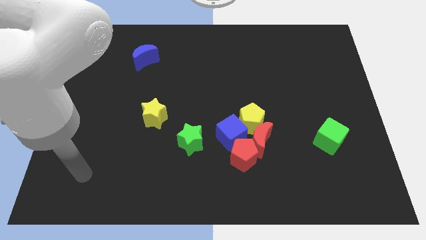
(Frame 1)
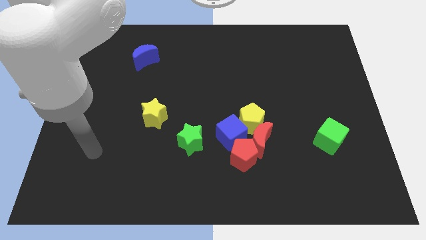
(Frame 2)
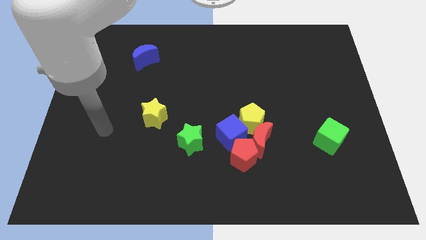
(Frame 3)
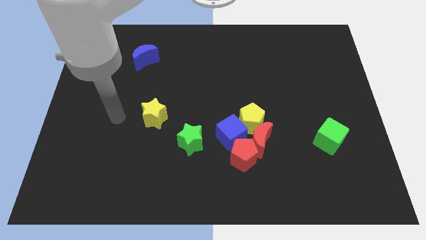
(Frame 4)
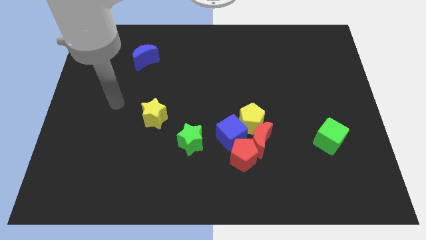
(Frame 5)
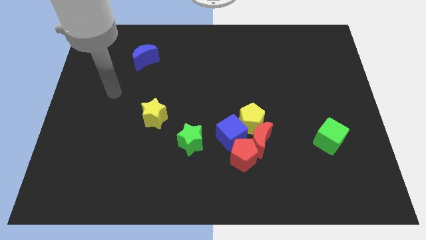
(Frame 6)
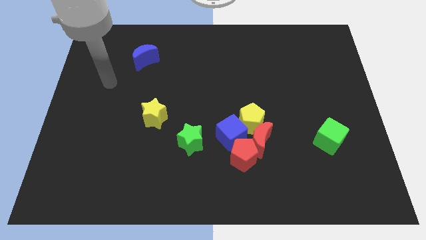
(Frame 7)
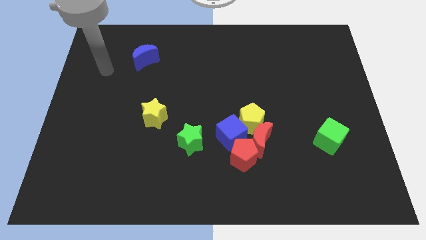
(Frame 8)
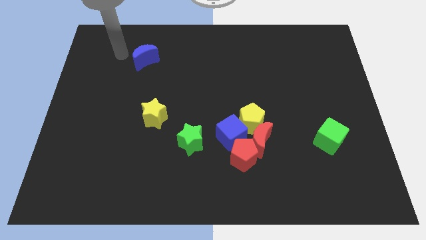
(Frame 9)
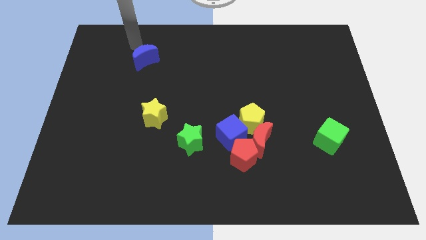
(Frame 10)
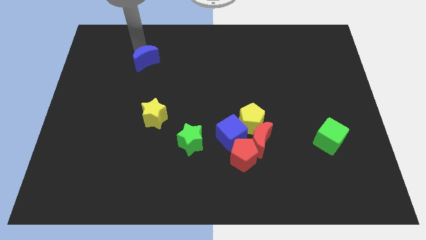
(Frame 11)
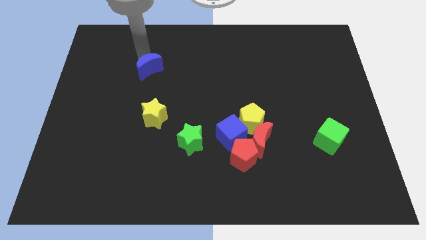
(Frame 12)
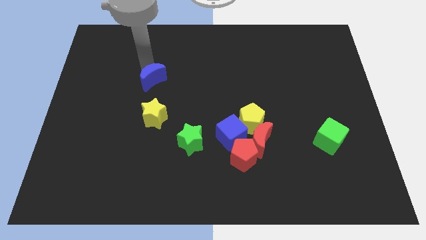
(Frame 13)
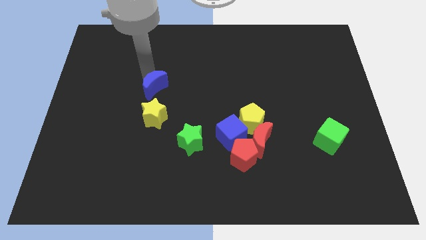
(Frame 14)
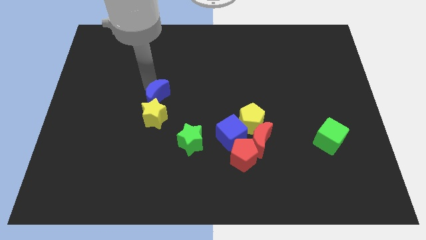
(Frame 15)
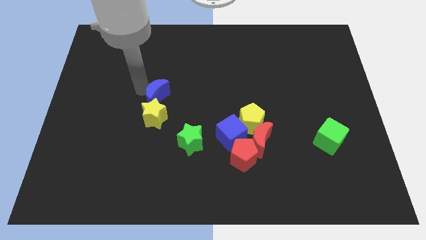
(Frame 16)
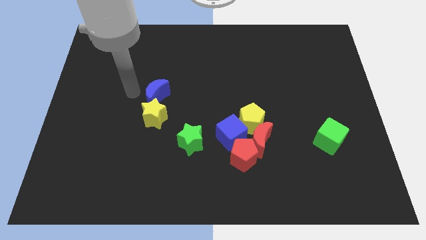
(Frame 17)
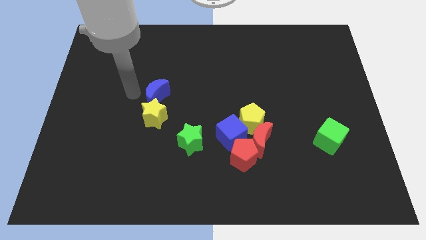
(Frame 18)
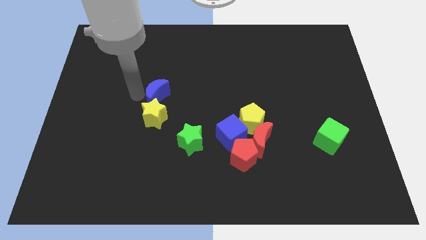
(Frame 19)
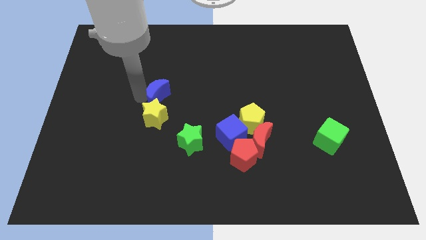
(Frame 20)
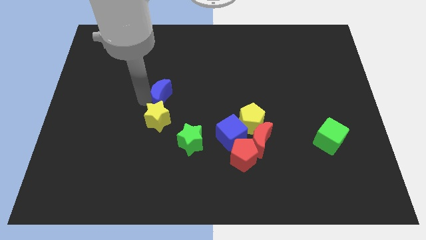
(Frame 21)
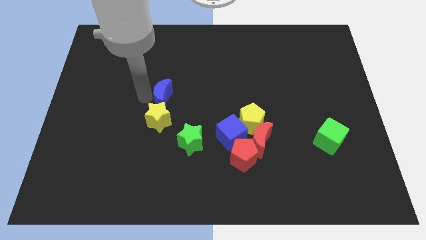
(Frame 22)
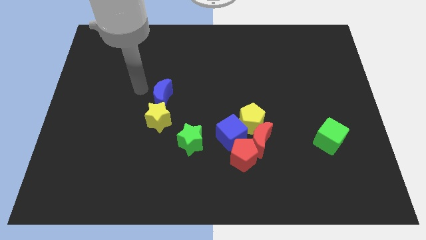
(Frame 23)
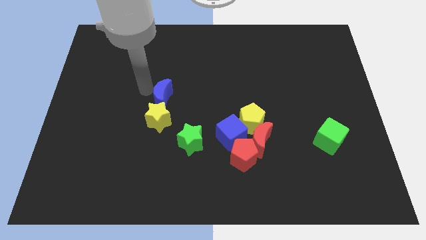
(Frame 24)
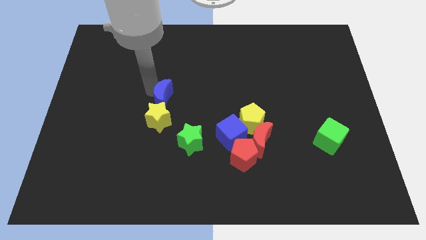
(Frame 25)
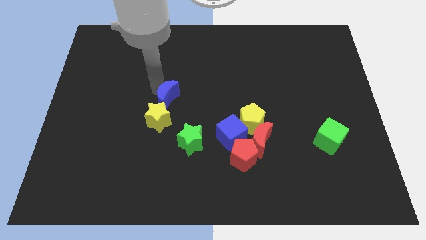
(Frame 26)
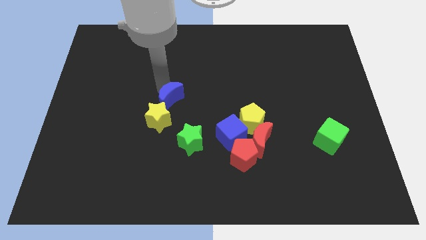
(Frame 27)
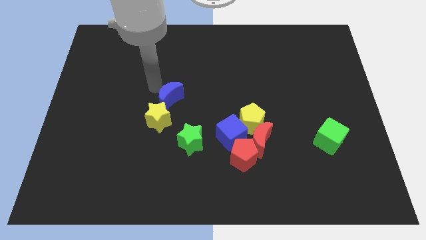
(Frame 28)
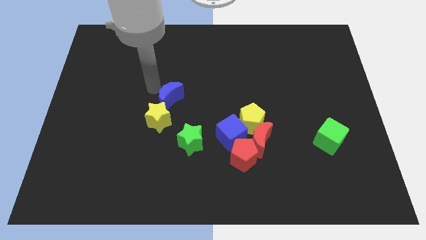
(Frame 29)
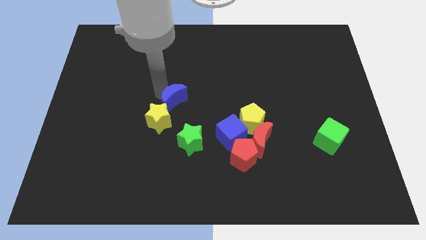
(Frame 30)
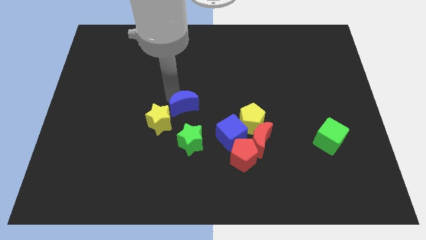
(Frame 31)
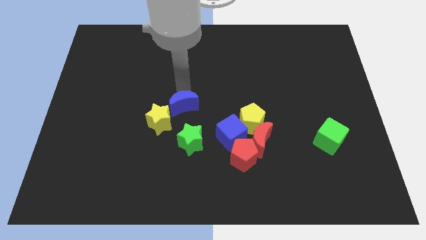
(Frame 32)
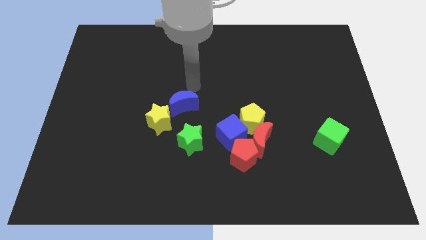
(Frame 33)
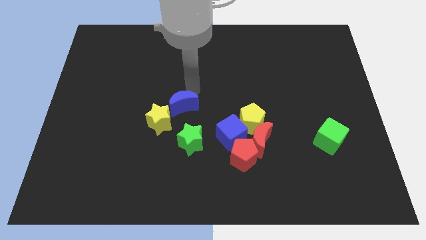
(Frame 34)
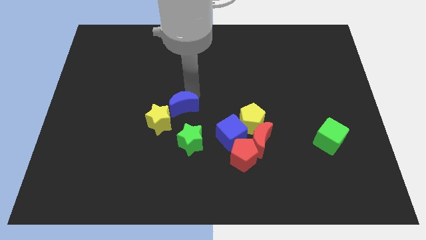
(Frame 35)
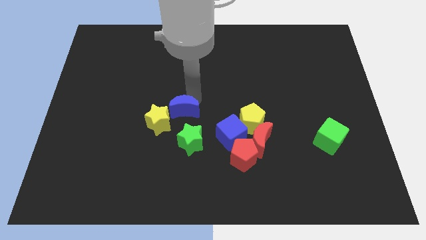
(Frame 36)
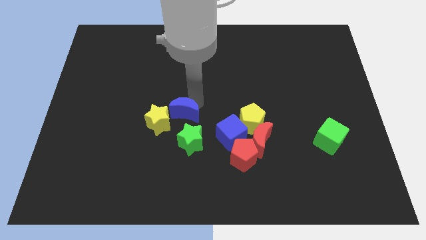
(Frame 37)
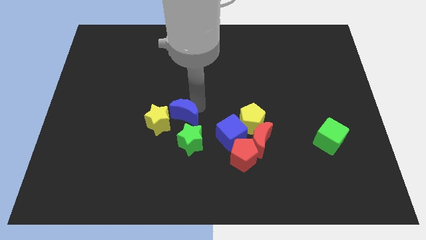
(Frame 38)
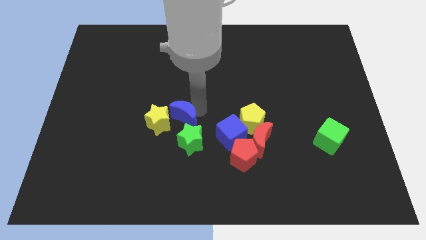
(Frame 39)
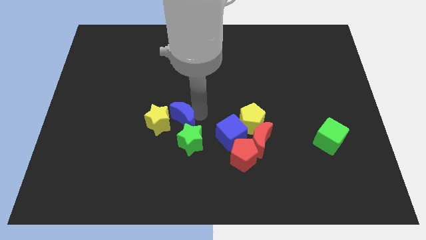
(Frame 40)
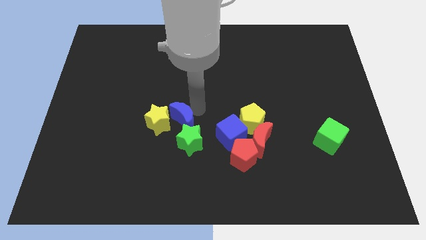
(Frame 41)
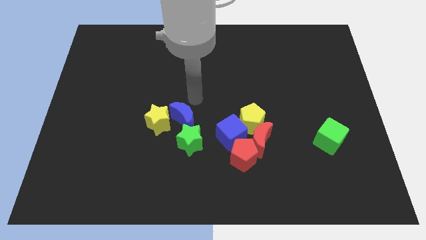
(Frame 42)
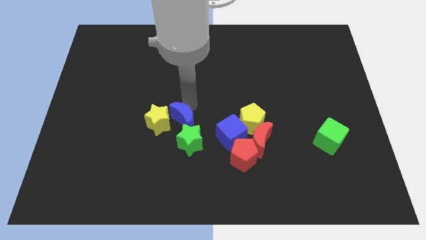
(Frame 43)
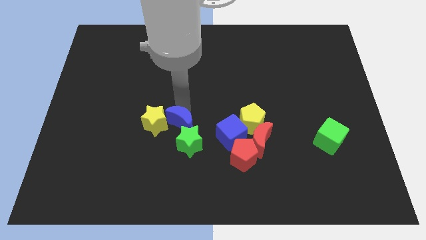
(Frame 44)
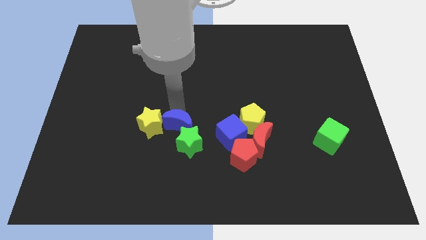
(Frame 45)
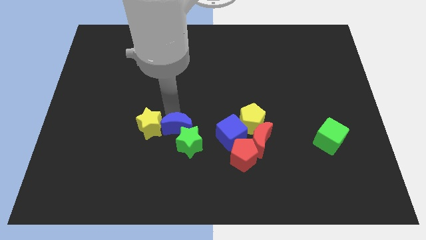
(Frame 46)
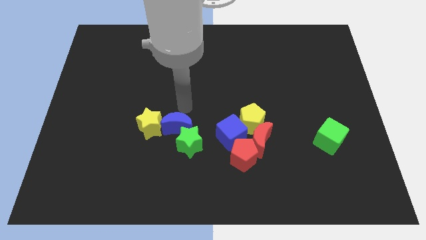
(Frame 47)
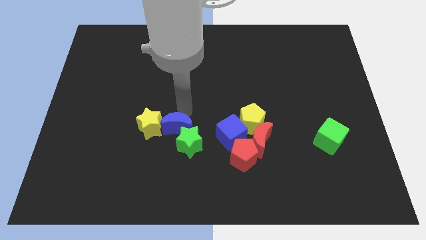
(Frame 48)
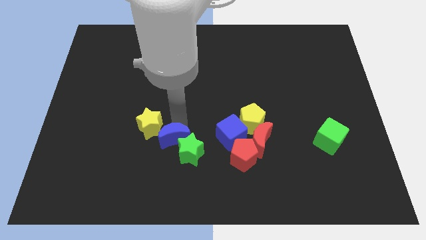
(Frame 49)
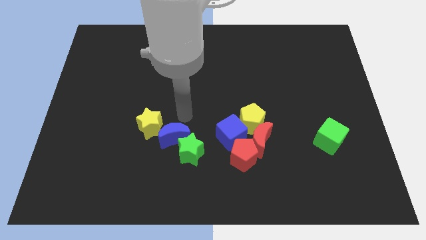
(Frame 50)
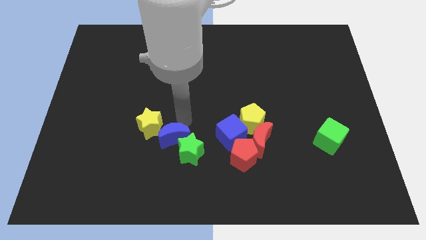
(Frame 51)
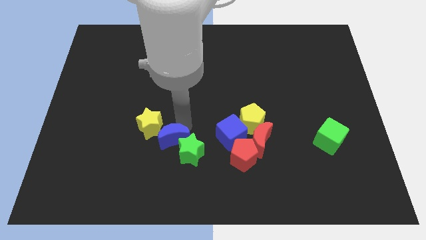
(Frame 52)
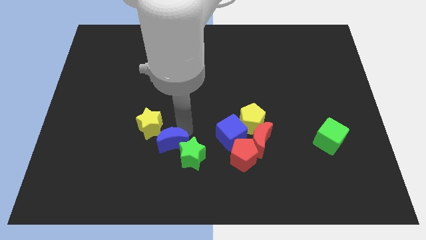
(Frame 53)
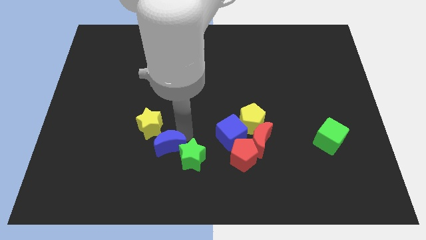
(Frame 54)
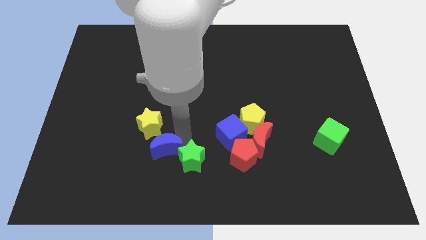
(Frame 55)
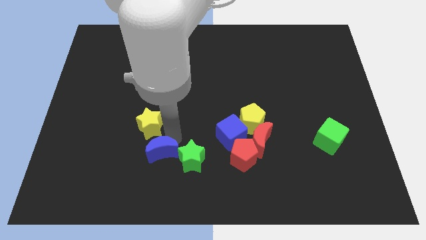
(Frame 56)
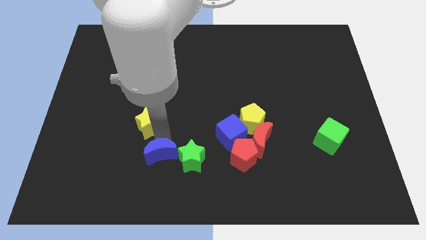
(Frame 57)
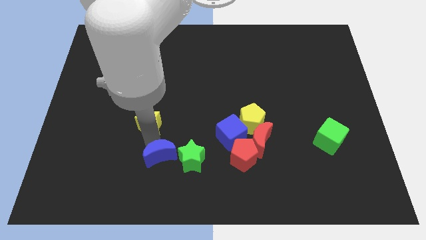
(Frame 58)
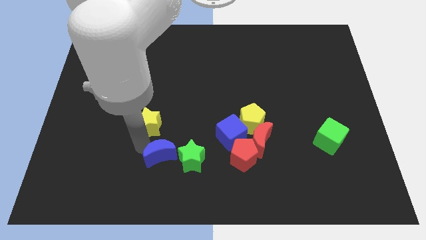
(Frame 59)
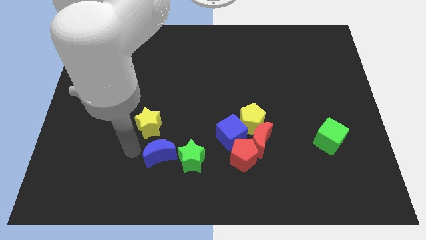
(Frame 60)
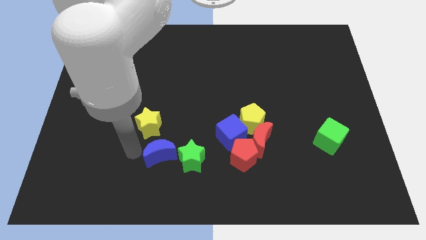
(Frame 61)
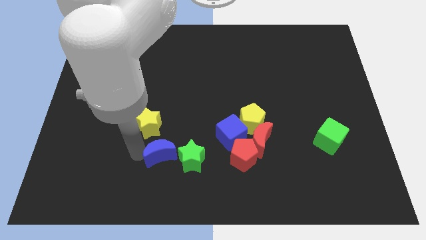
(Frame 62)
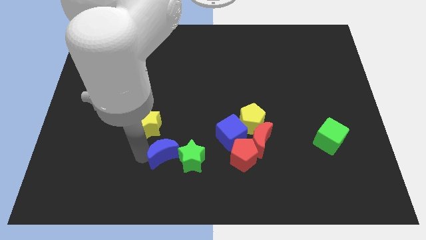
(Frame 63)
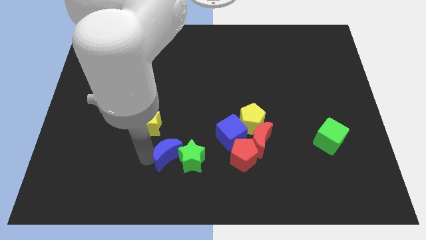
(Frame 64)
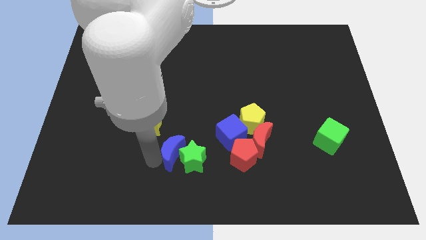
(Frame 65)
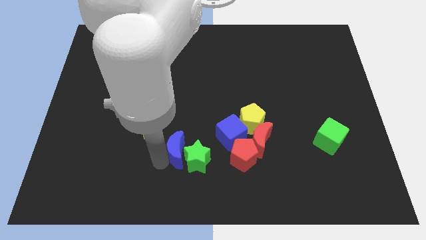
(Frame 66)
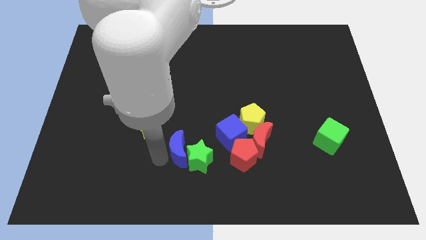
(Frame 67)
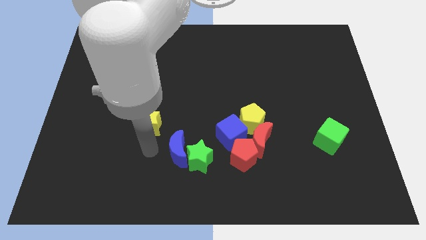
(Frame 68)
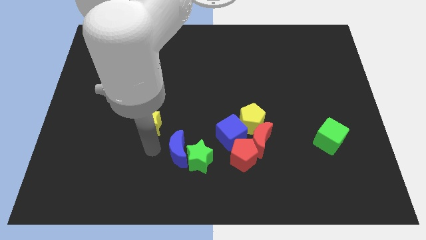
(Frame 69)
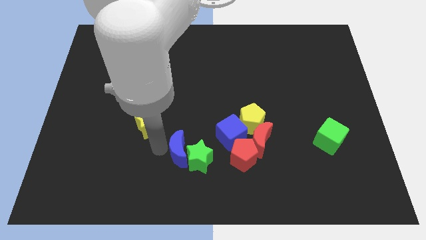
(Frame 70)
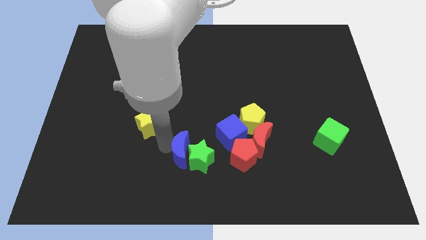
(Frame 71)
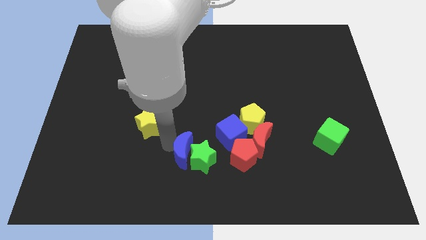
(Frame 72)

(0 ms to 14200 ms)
push the blue moon to the bottom left of the blue cube

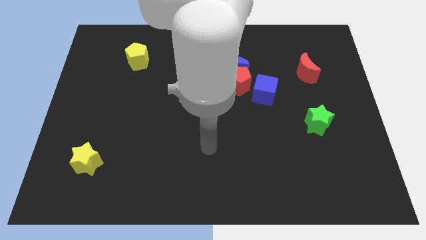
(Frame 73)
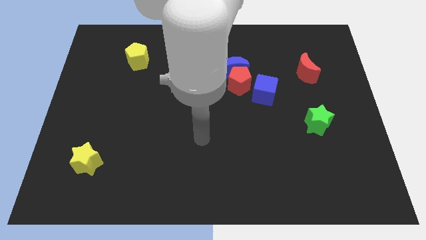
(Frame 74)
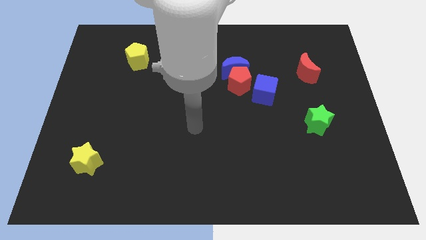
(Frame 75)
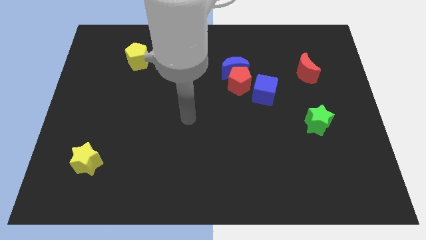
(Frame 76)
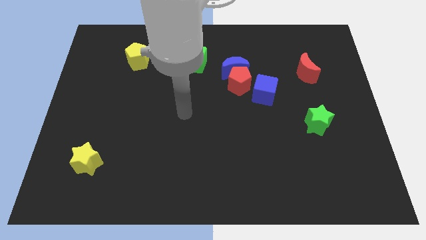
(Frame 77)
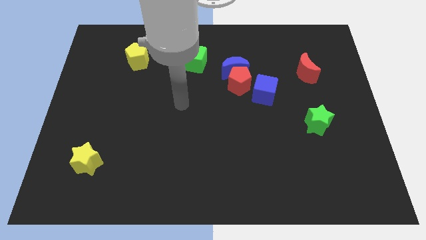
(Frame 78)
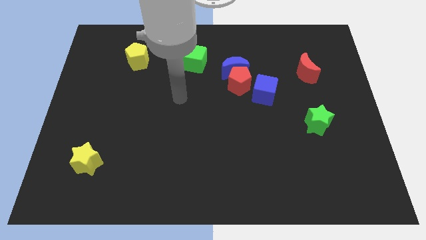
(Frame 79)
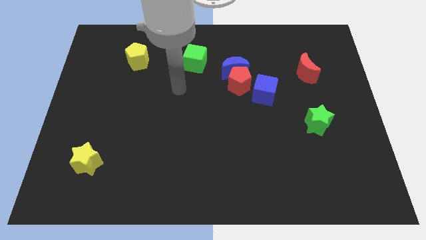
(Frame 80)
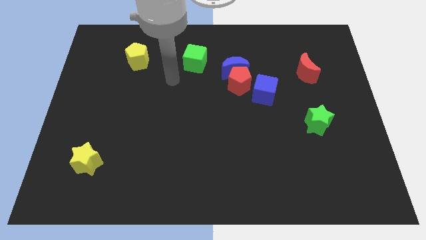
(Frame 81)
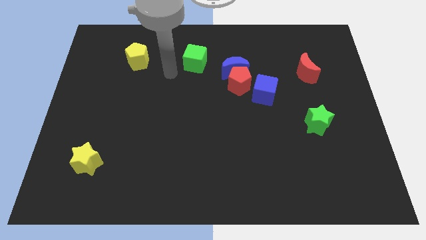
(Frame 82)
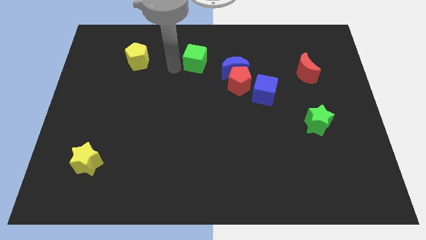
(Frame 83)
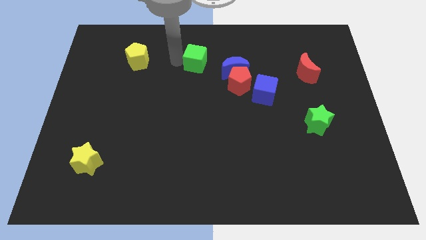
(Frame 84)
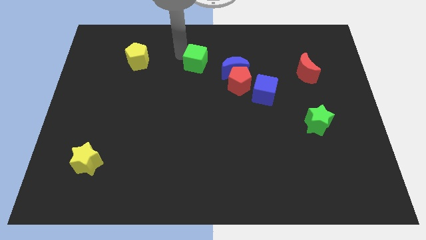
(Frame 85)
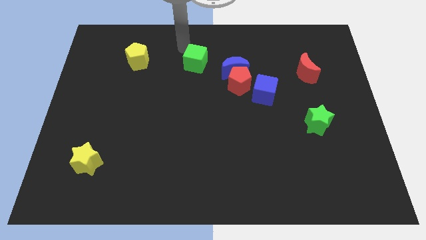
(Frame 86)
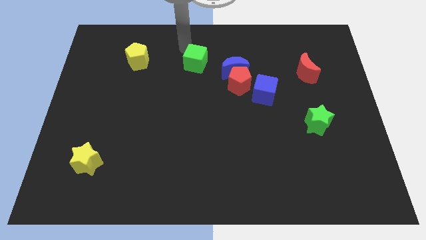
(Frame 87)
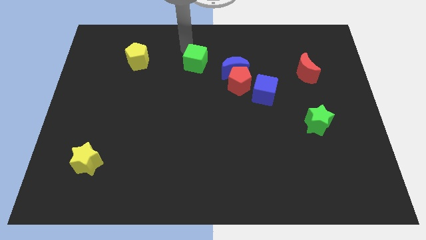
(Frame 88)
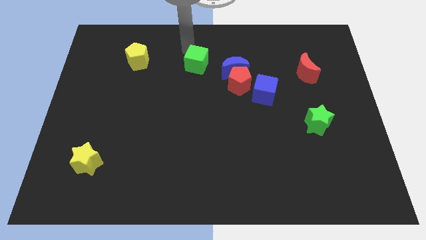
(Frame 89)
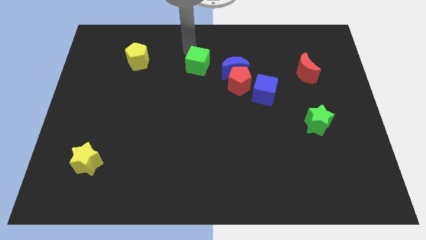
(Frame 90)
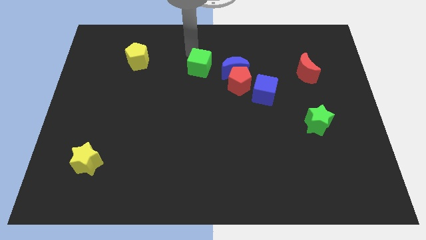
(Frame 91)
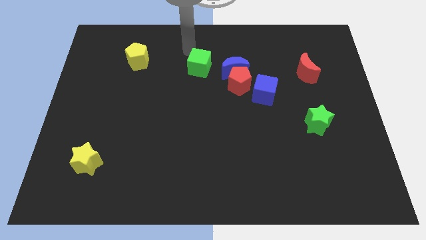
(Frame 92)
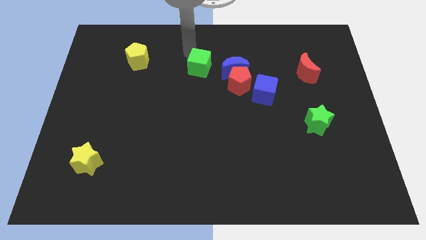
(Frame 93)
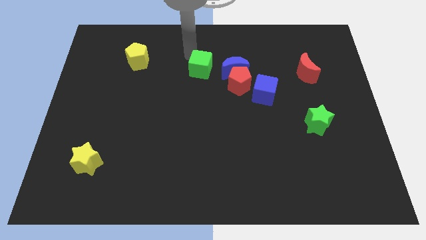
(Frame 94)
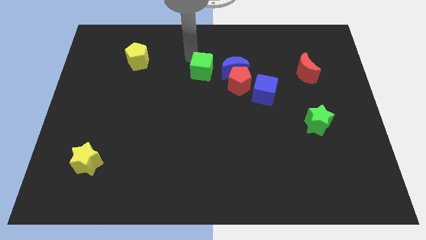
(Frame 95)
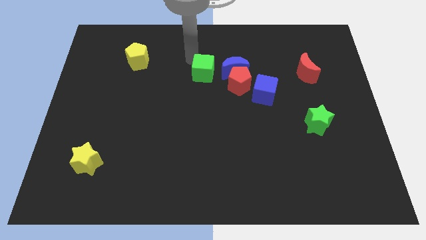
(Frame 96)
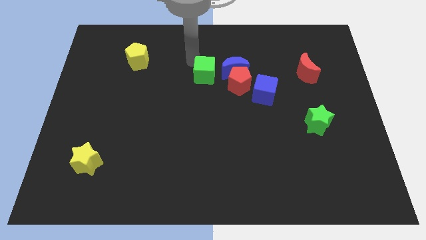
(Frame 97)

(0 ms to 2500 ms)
push the green cube diagonally down and to the left of the blue moon
